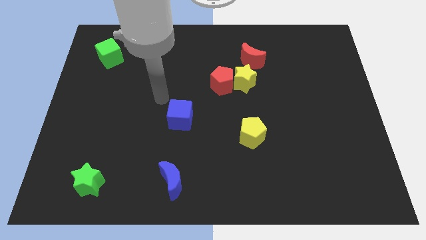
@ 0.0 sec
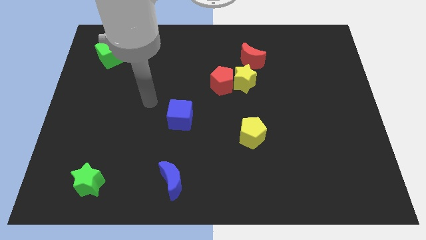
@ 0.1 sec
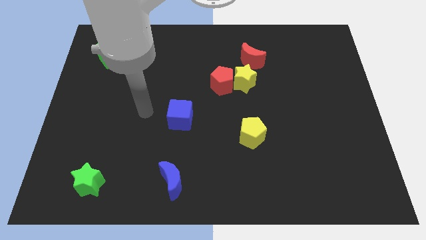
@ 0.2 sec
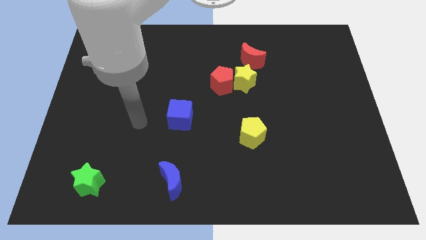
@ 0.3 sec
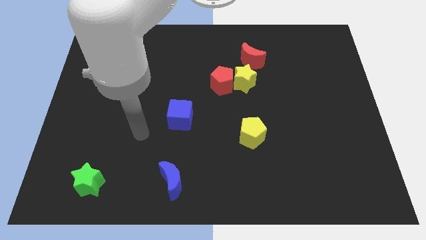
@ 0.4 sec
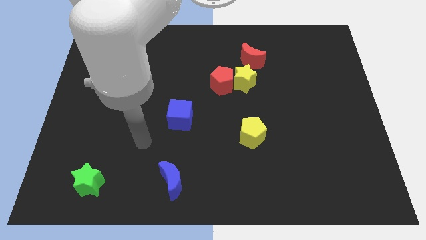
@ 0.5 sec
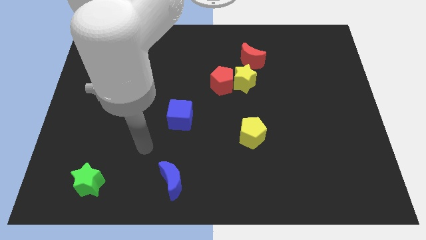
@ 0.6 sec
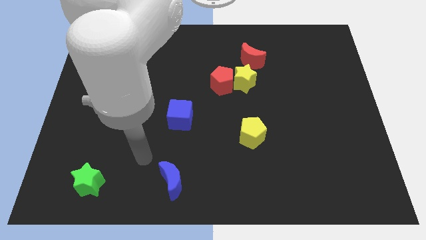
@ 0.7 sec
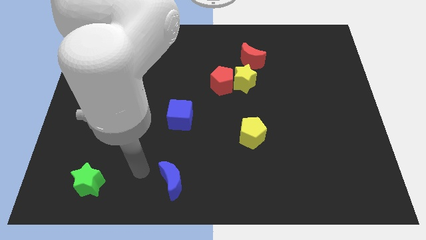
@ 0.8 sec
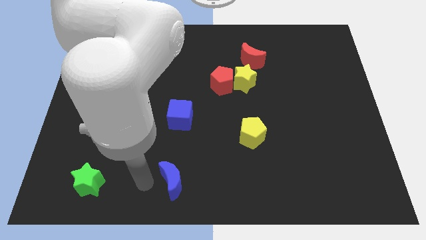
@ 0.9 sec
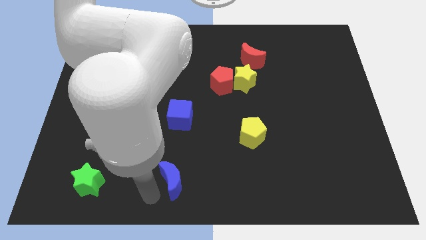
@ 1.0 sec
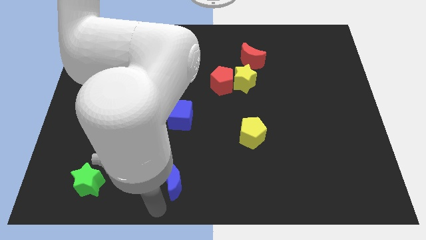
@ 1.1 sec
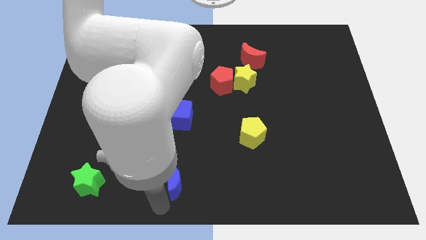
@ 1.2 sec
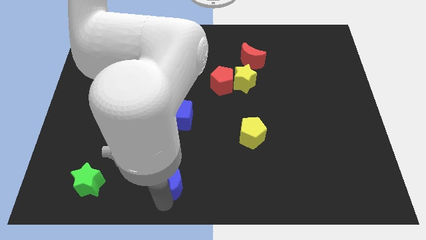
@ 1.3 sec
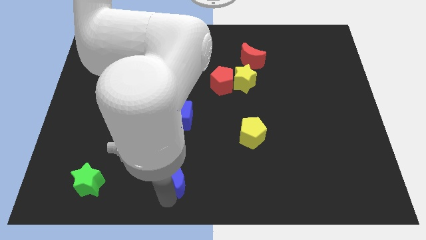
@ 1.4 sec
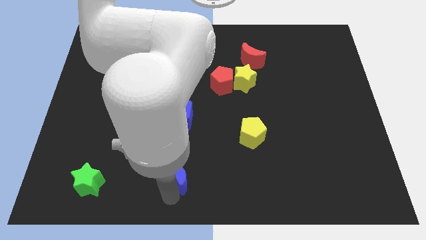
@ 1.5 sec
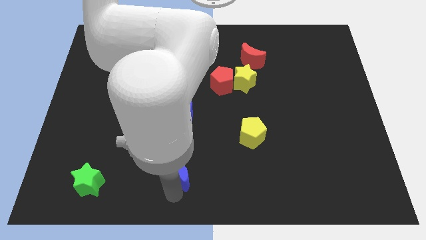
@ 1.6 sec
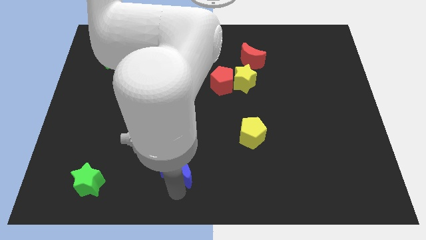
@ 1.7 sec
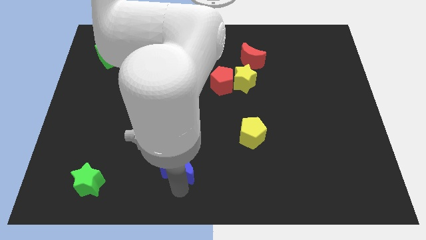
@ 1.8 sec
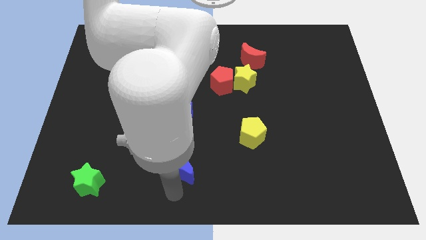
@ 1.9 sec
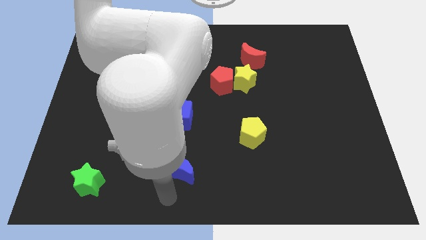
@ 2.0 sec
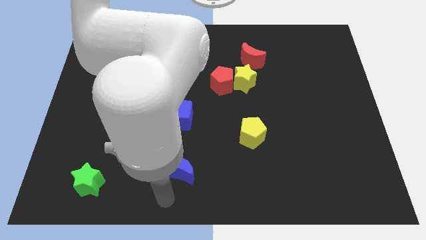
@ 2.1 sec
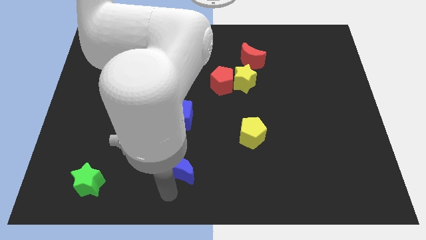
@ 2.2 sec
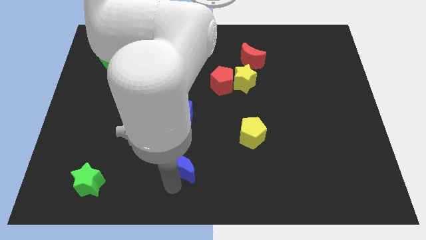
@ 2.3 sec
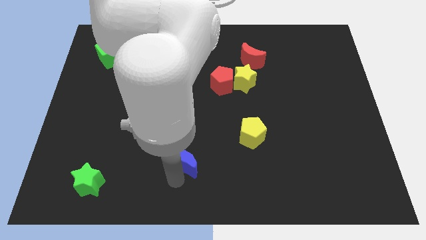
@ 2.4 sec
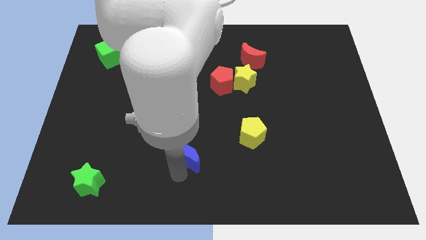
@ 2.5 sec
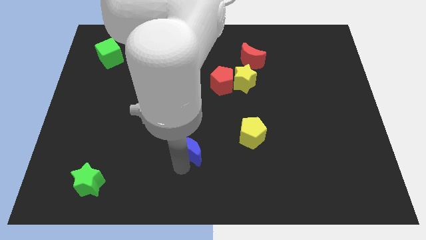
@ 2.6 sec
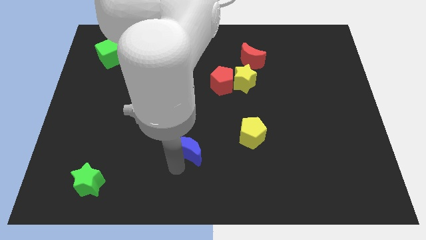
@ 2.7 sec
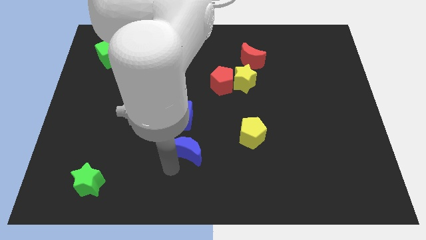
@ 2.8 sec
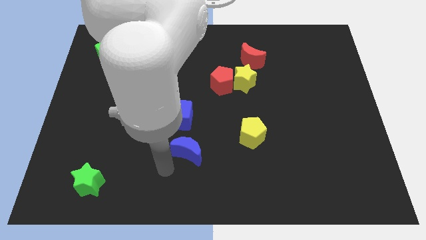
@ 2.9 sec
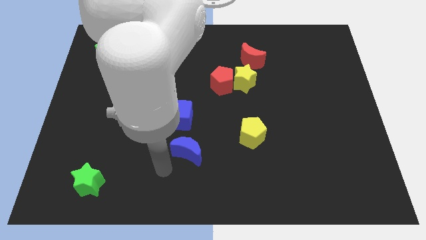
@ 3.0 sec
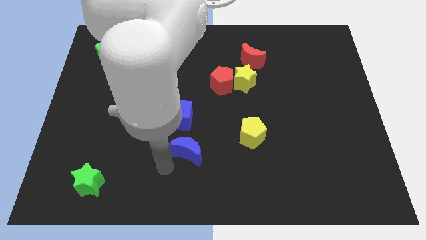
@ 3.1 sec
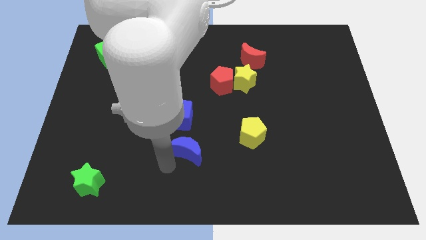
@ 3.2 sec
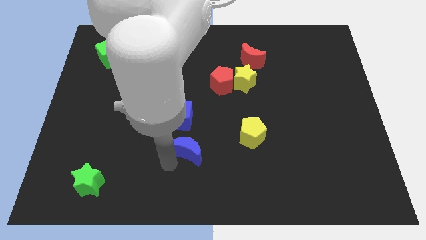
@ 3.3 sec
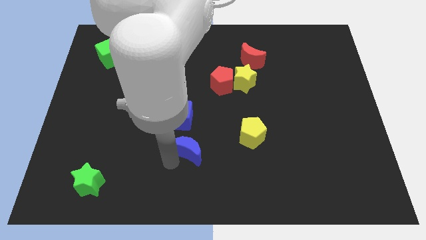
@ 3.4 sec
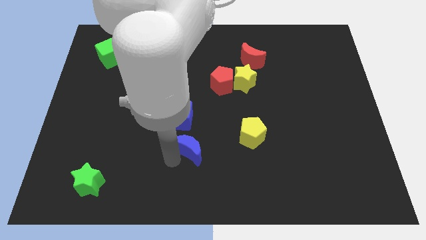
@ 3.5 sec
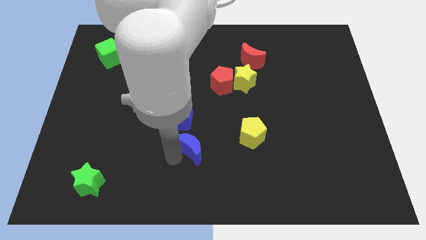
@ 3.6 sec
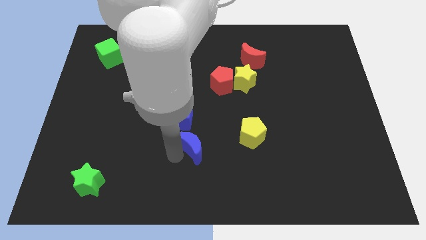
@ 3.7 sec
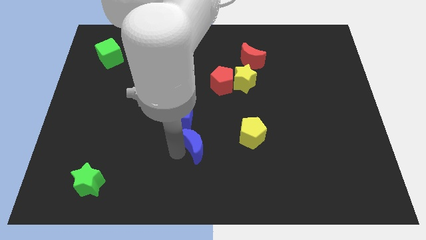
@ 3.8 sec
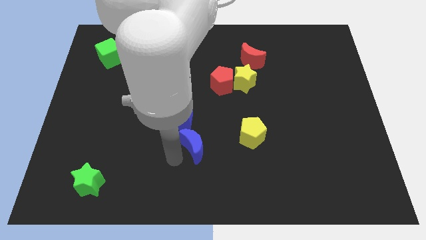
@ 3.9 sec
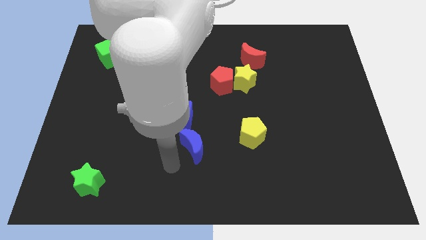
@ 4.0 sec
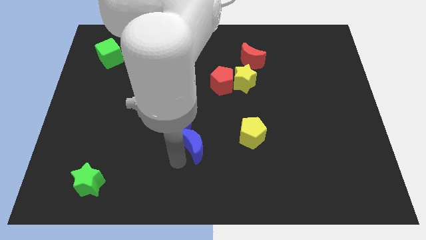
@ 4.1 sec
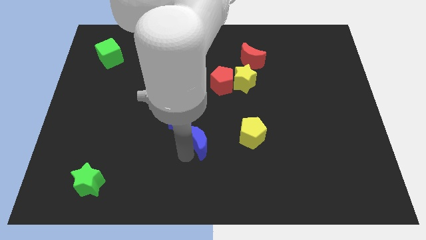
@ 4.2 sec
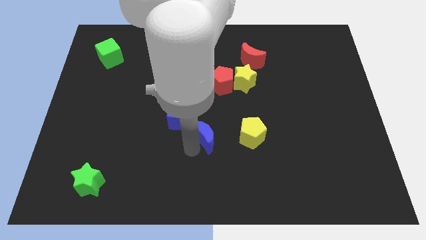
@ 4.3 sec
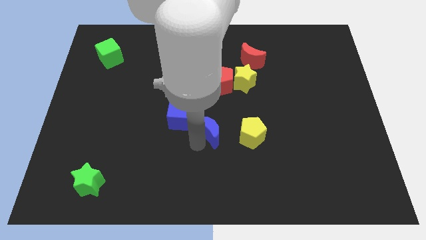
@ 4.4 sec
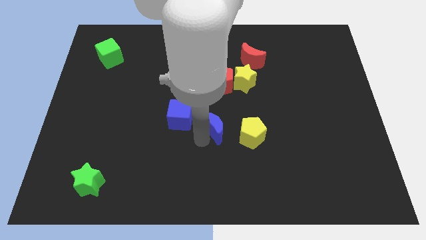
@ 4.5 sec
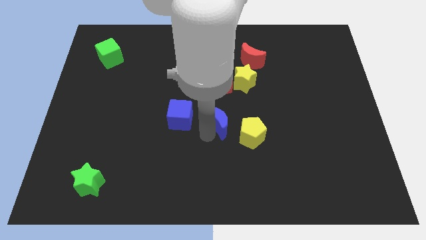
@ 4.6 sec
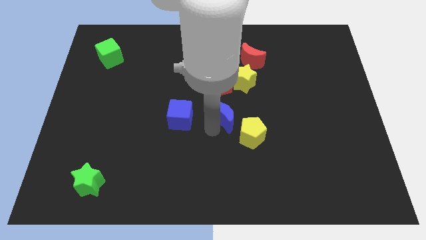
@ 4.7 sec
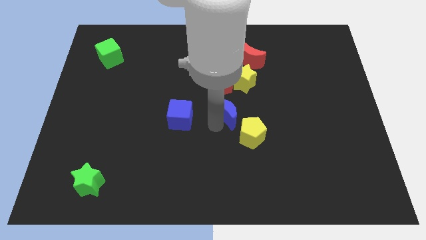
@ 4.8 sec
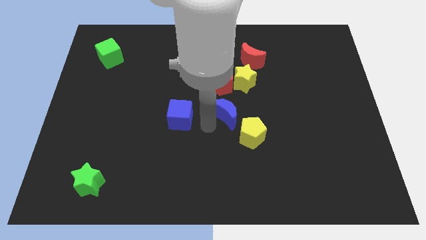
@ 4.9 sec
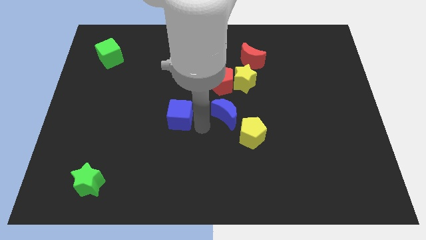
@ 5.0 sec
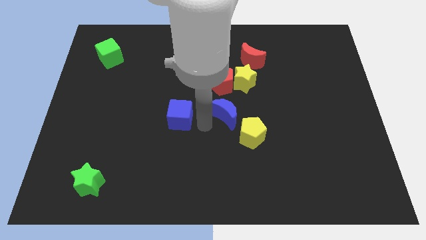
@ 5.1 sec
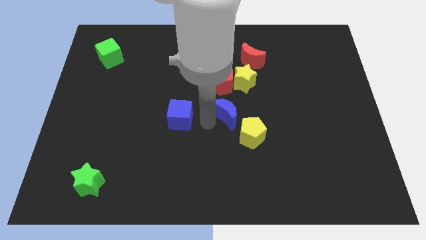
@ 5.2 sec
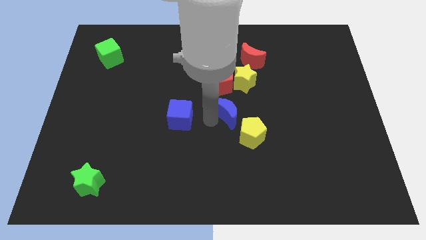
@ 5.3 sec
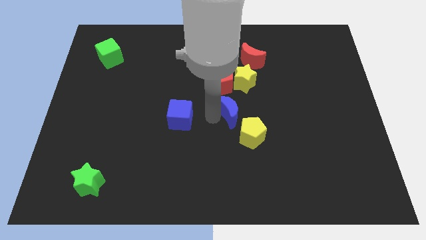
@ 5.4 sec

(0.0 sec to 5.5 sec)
slide the blue moon up and to the right diagonally

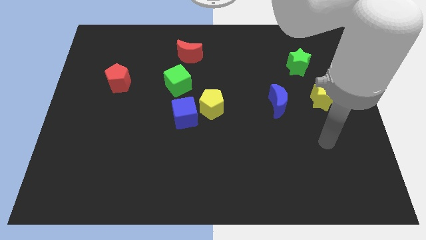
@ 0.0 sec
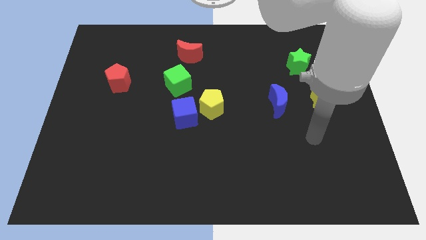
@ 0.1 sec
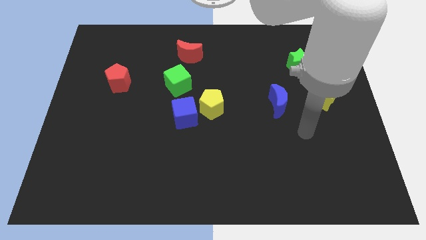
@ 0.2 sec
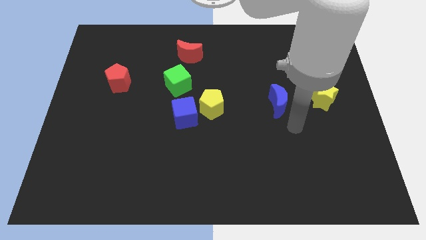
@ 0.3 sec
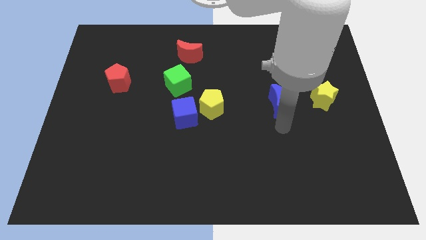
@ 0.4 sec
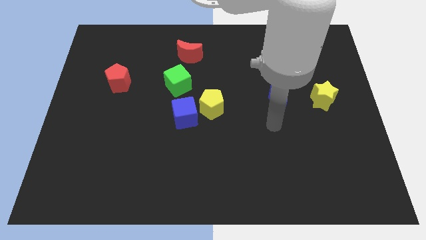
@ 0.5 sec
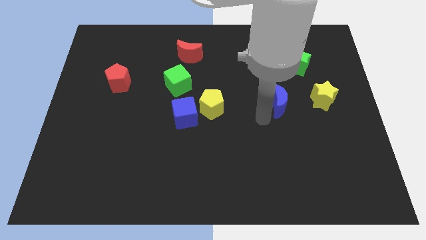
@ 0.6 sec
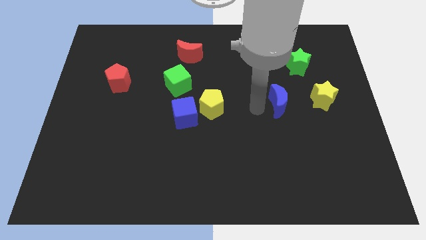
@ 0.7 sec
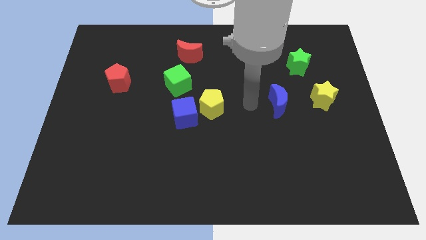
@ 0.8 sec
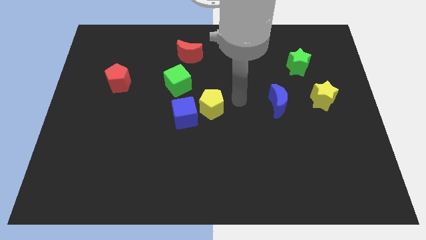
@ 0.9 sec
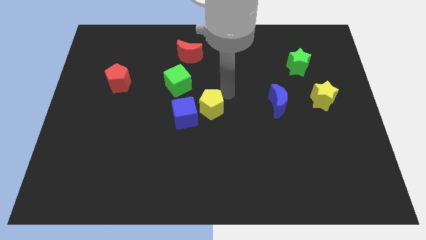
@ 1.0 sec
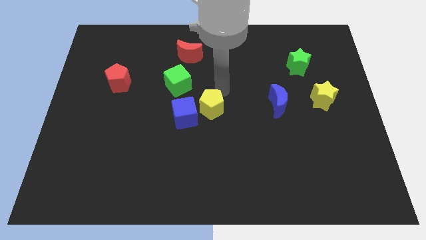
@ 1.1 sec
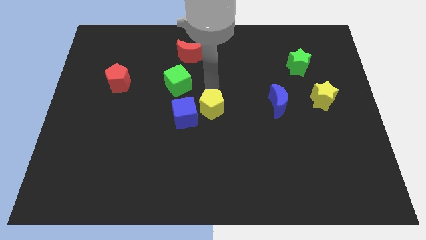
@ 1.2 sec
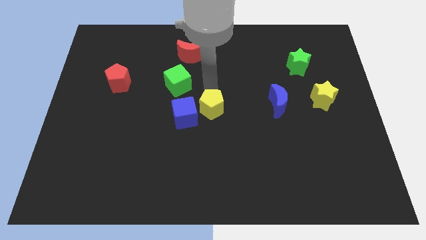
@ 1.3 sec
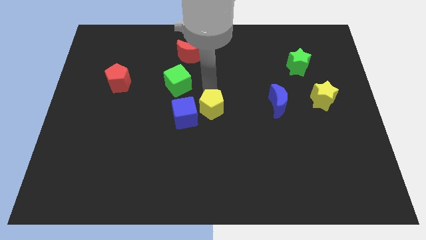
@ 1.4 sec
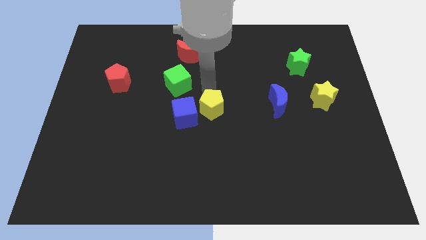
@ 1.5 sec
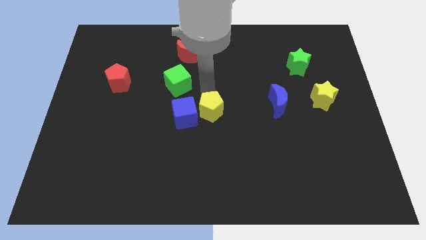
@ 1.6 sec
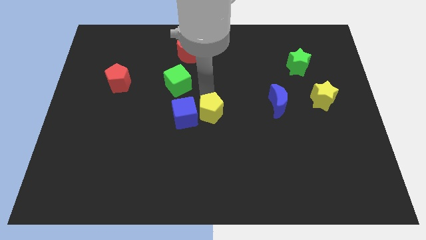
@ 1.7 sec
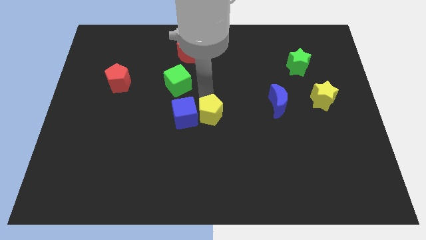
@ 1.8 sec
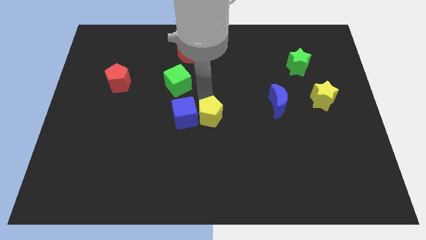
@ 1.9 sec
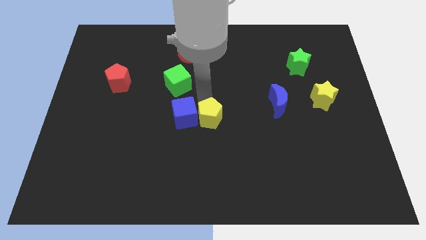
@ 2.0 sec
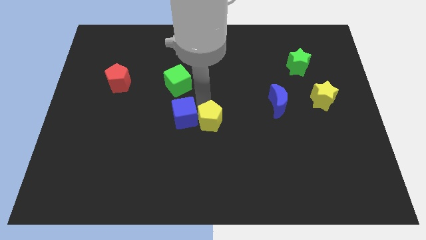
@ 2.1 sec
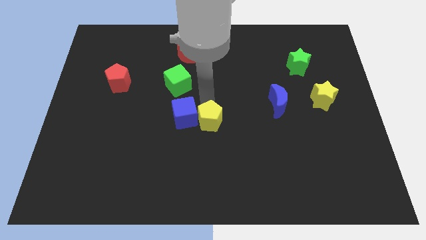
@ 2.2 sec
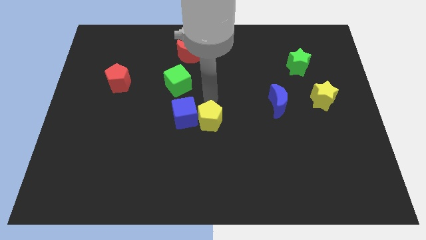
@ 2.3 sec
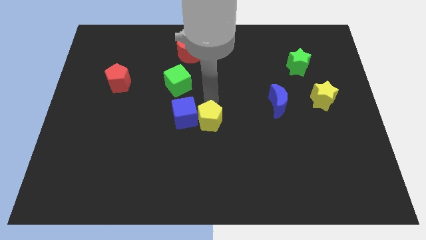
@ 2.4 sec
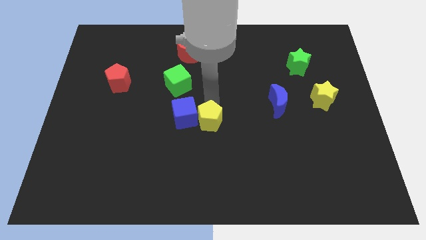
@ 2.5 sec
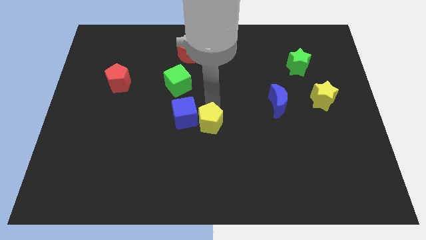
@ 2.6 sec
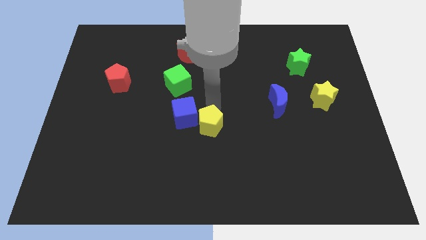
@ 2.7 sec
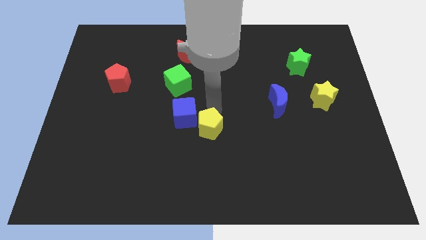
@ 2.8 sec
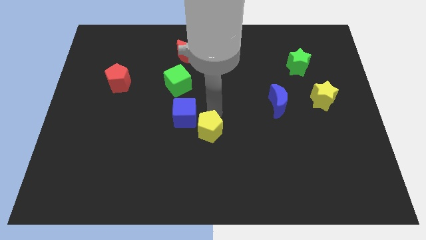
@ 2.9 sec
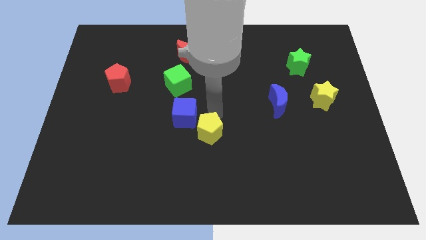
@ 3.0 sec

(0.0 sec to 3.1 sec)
slightly move the yellow pentagon downwards
